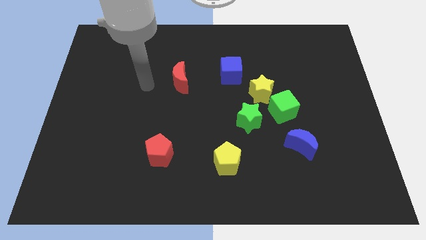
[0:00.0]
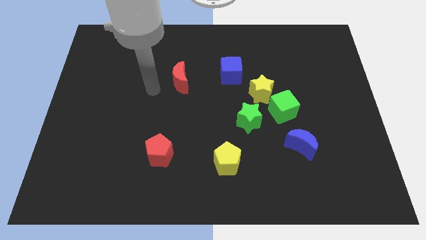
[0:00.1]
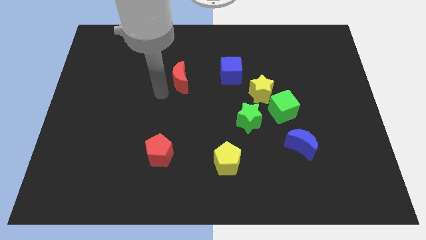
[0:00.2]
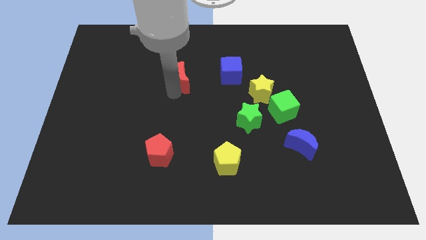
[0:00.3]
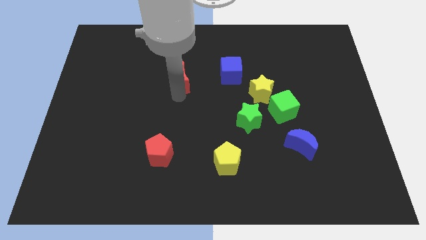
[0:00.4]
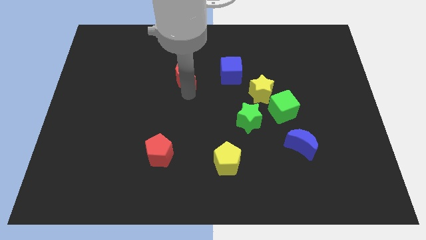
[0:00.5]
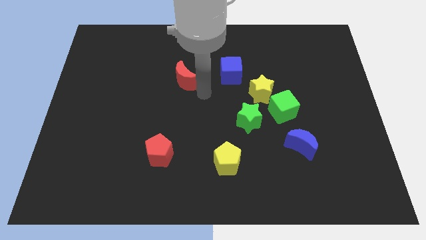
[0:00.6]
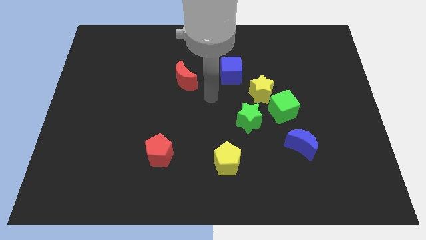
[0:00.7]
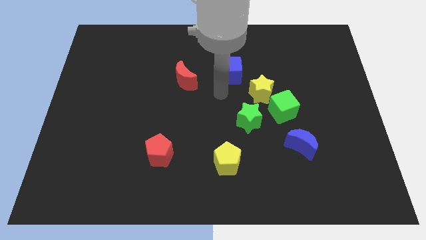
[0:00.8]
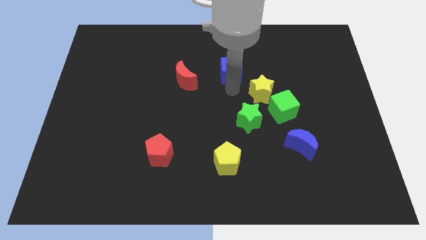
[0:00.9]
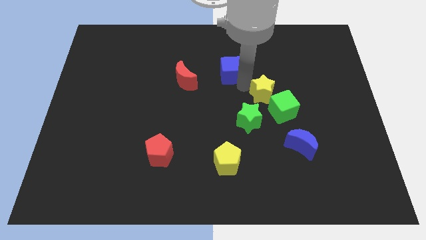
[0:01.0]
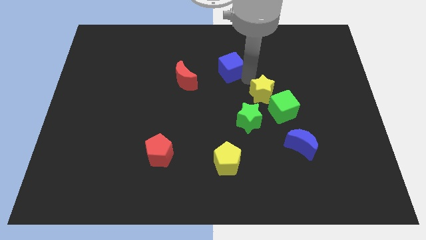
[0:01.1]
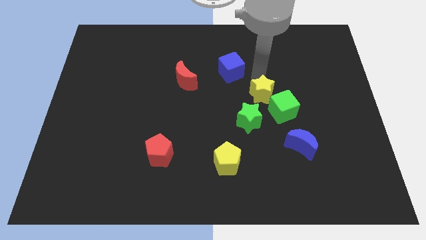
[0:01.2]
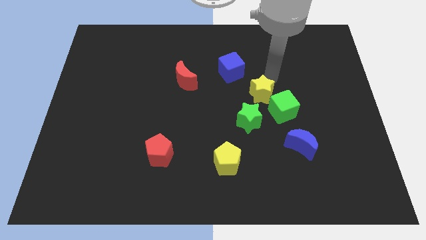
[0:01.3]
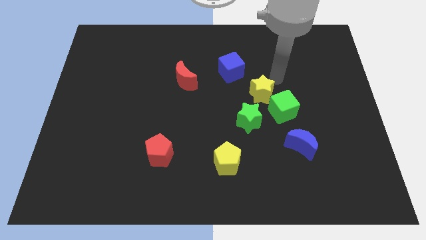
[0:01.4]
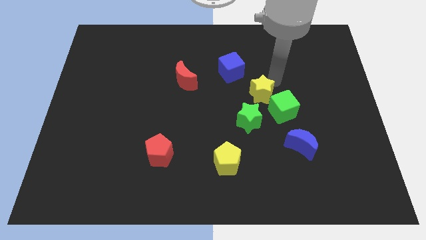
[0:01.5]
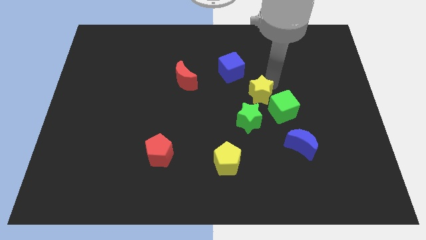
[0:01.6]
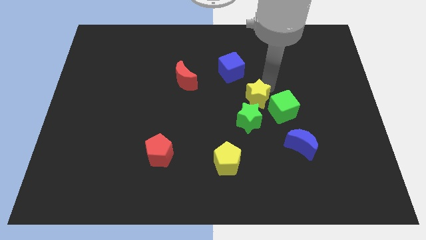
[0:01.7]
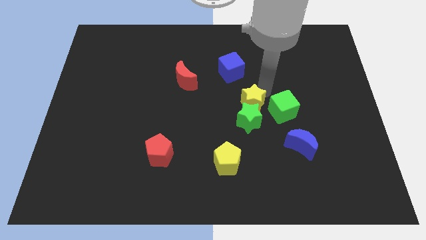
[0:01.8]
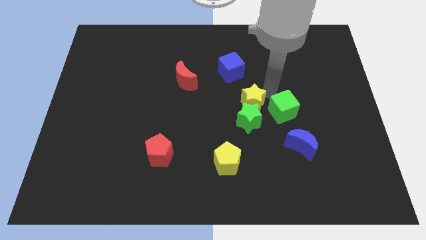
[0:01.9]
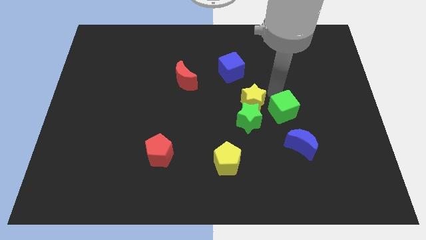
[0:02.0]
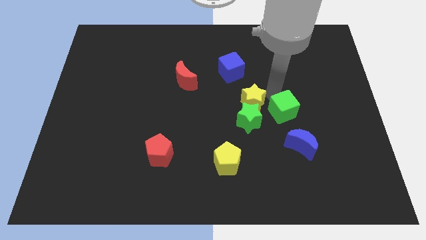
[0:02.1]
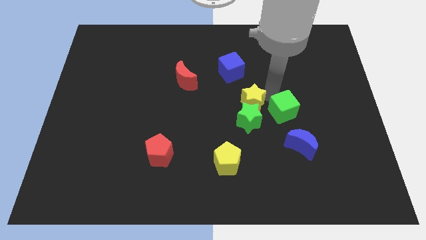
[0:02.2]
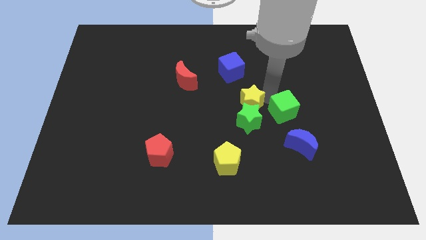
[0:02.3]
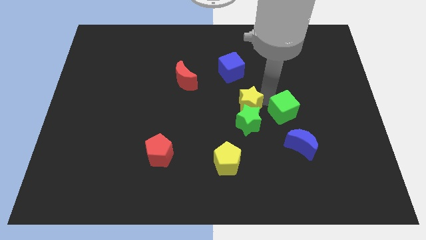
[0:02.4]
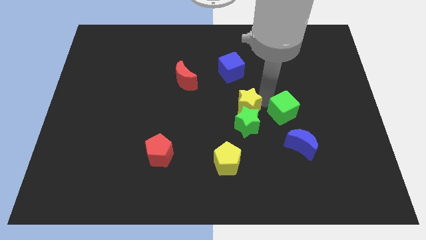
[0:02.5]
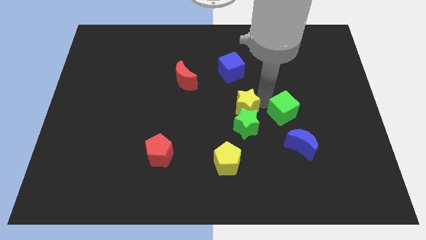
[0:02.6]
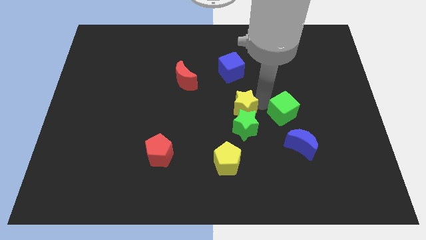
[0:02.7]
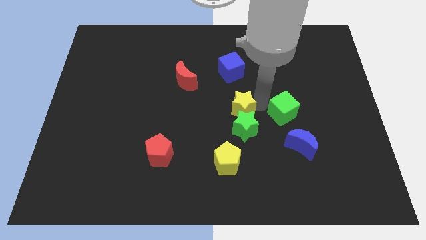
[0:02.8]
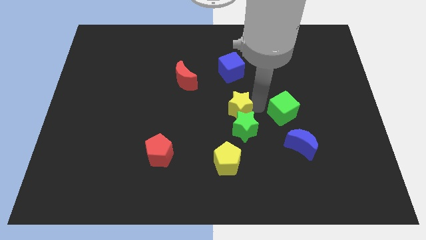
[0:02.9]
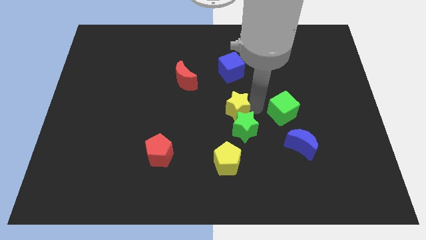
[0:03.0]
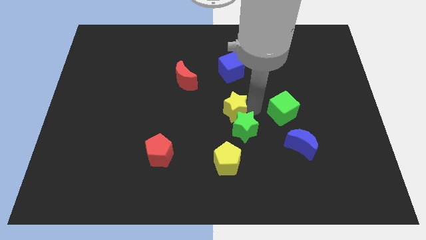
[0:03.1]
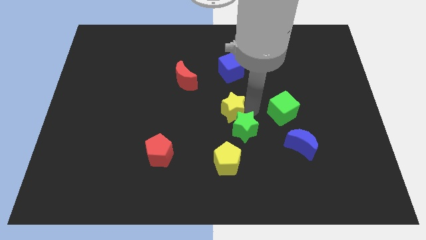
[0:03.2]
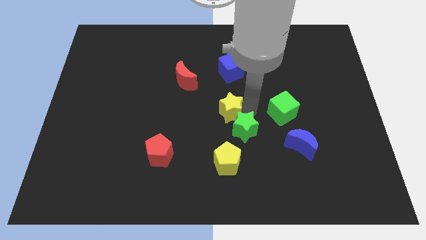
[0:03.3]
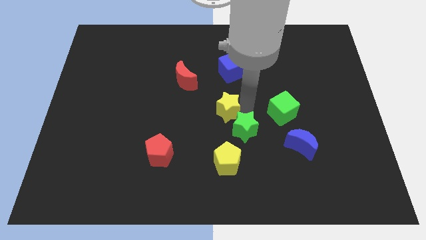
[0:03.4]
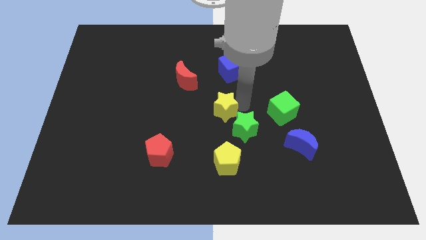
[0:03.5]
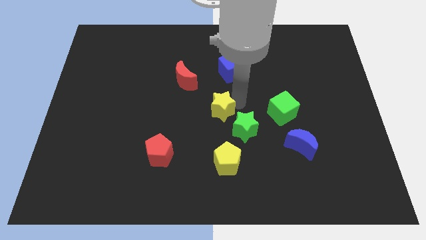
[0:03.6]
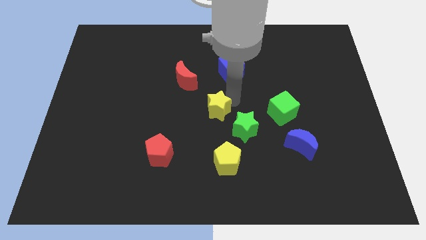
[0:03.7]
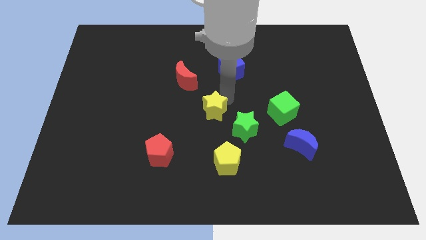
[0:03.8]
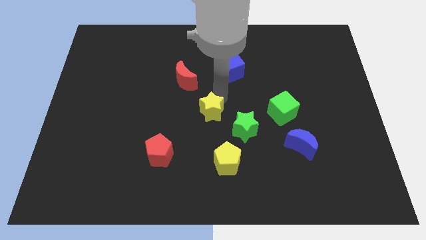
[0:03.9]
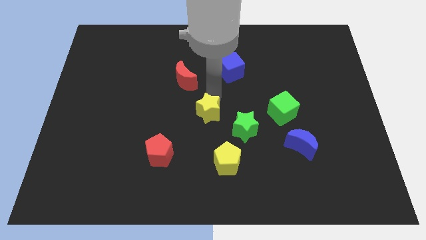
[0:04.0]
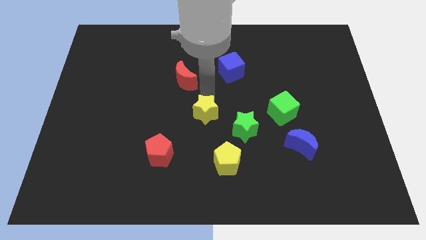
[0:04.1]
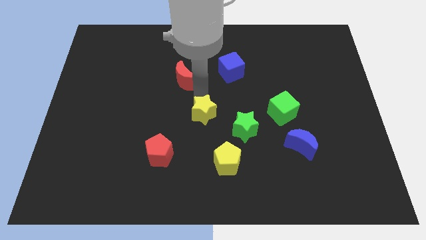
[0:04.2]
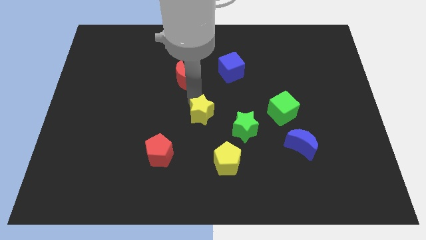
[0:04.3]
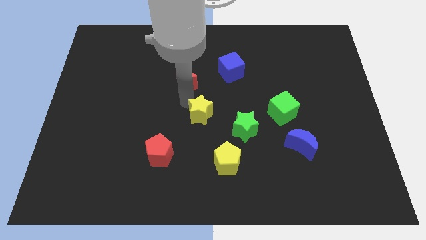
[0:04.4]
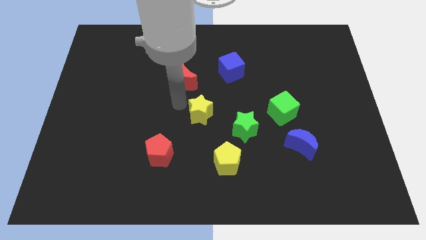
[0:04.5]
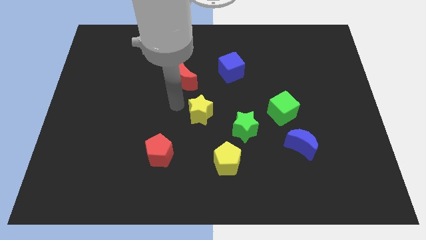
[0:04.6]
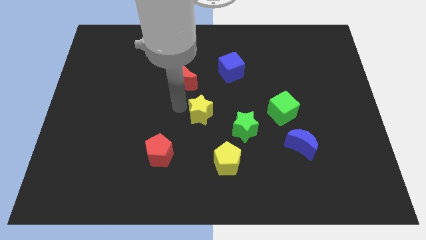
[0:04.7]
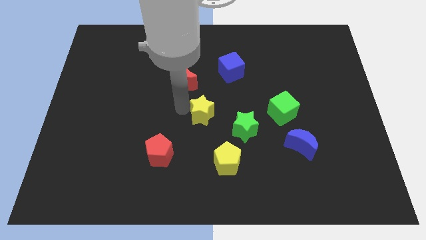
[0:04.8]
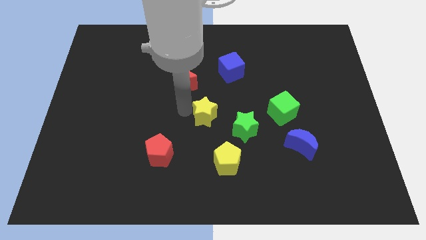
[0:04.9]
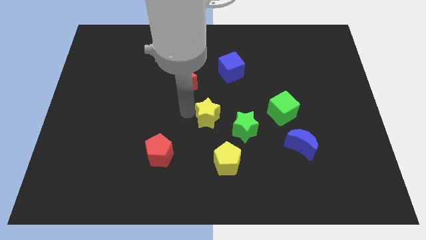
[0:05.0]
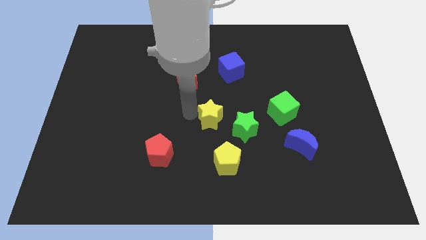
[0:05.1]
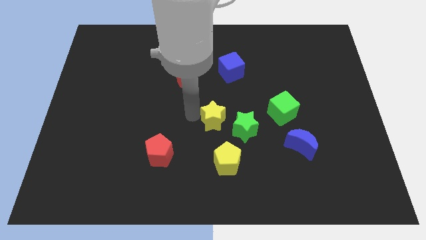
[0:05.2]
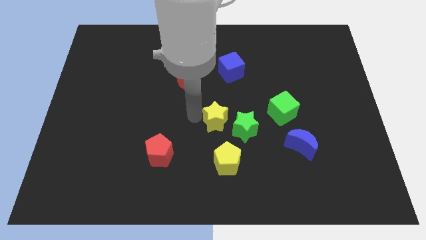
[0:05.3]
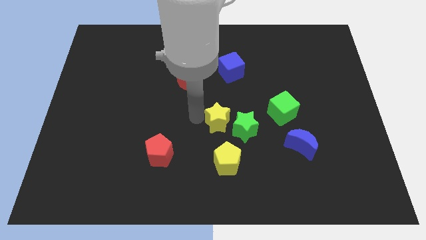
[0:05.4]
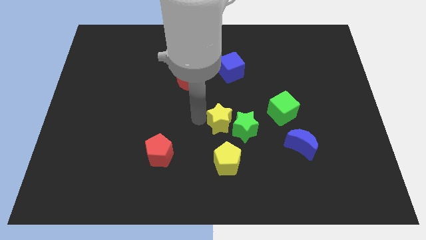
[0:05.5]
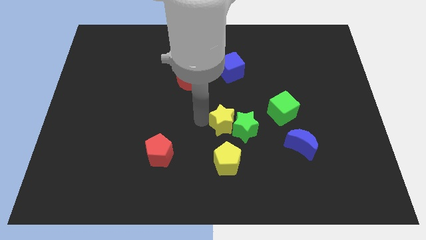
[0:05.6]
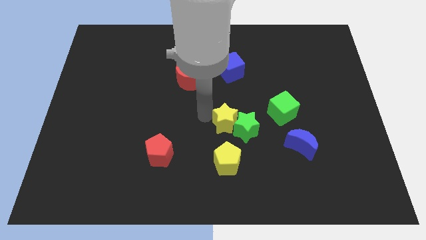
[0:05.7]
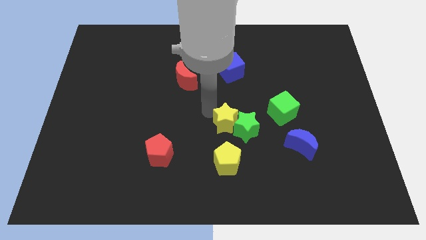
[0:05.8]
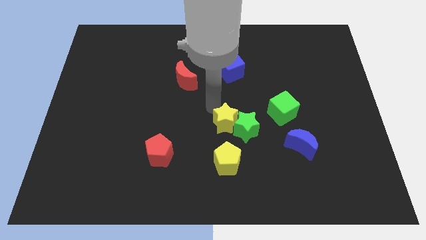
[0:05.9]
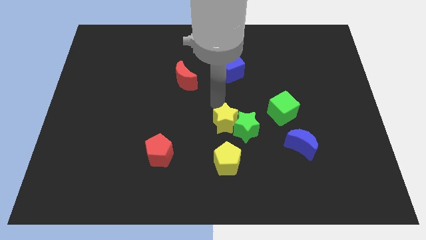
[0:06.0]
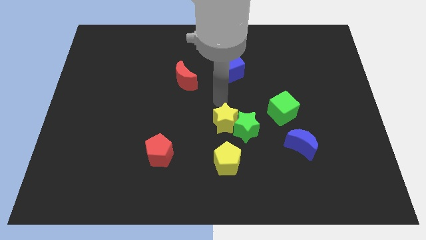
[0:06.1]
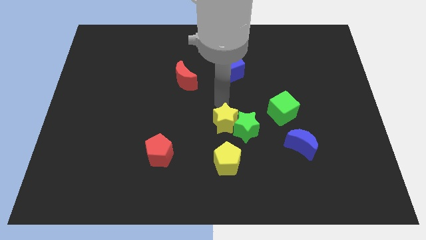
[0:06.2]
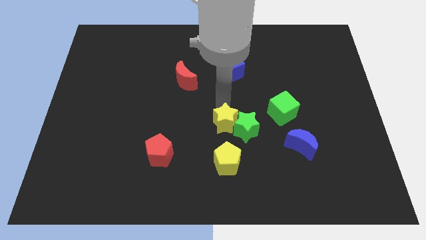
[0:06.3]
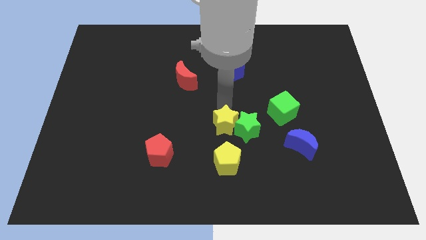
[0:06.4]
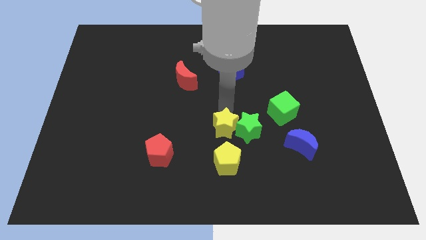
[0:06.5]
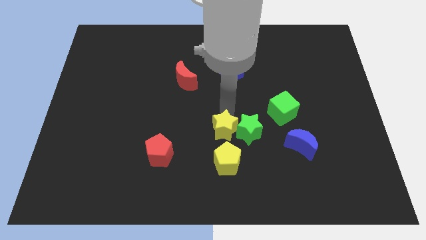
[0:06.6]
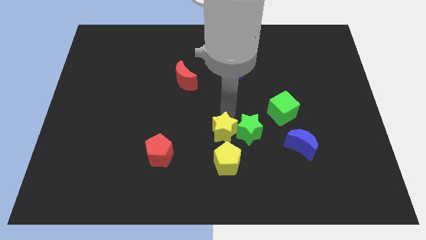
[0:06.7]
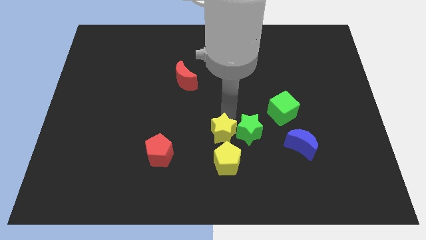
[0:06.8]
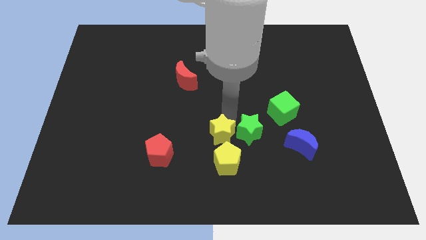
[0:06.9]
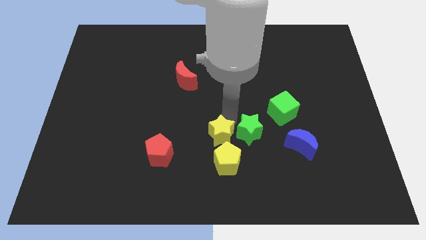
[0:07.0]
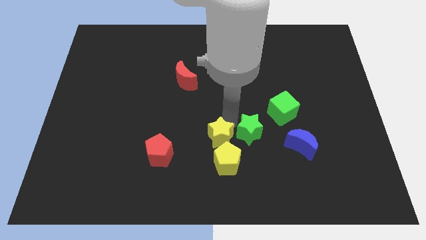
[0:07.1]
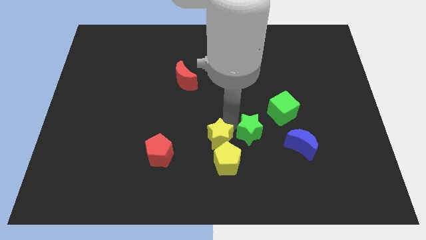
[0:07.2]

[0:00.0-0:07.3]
push the yellow star next to the yellow pentagon

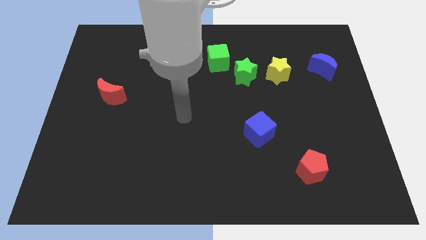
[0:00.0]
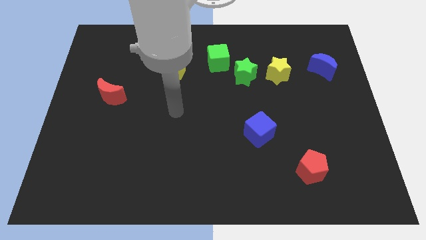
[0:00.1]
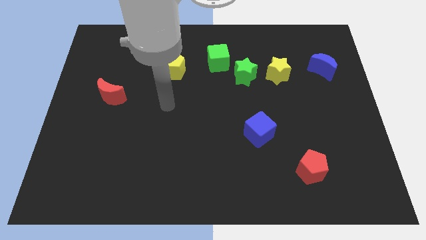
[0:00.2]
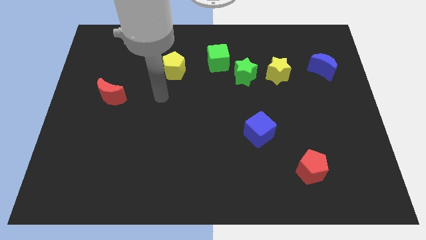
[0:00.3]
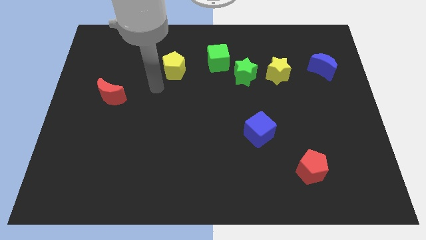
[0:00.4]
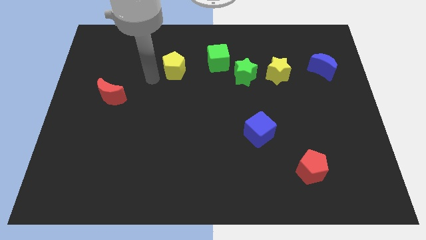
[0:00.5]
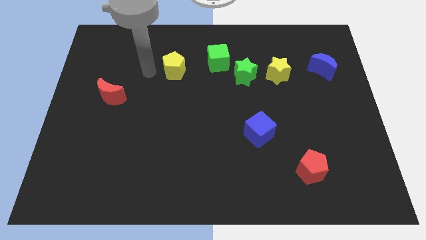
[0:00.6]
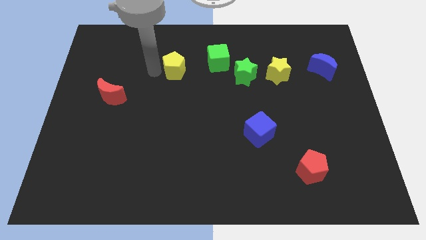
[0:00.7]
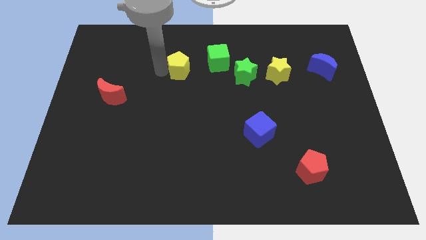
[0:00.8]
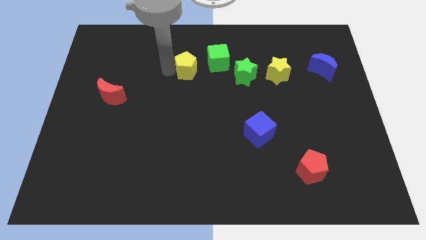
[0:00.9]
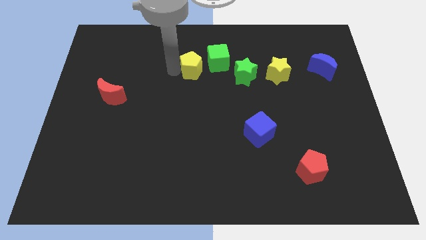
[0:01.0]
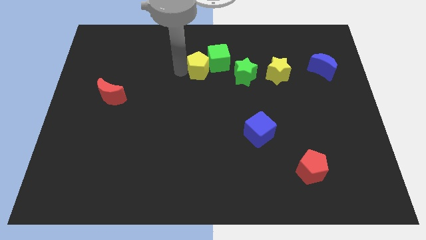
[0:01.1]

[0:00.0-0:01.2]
push the yellow pentagon to the green cube

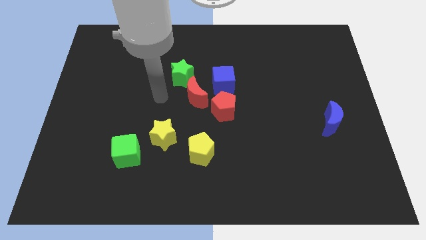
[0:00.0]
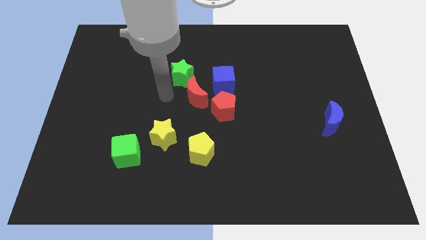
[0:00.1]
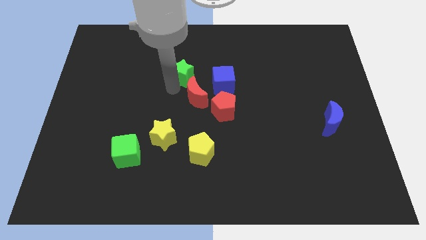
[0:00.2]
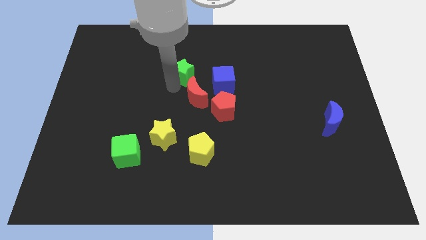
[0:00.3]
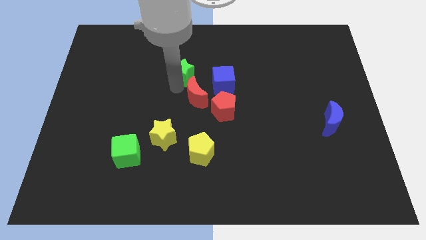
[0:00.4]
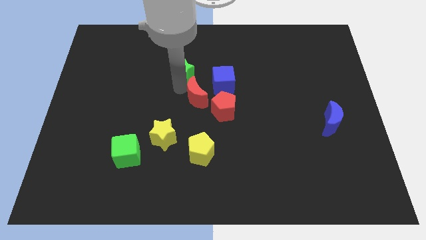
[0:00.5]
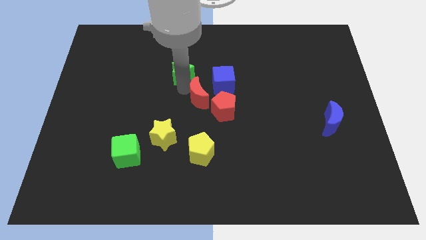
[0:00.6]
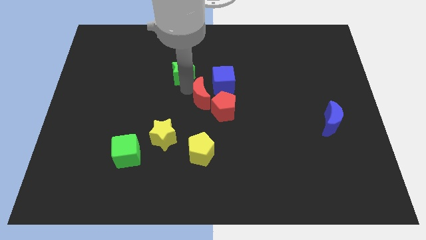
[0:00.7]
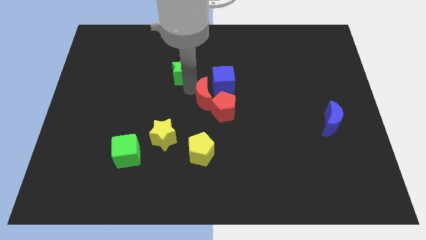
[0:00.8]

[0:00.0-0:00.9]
push the red moon close to the red pentagon
